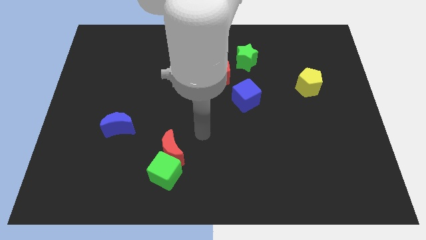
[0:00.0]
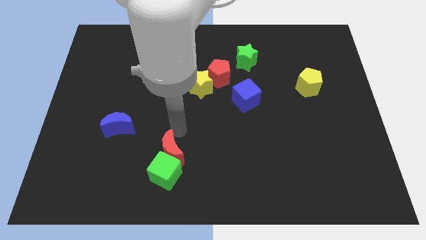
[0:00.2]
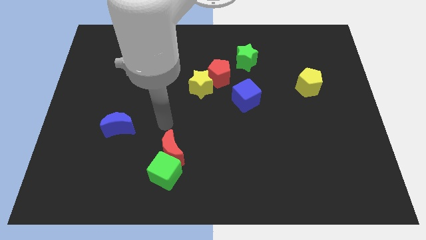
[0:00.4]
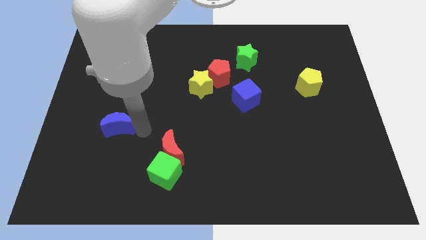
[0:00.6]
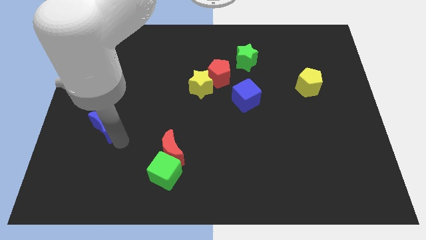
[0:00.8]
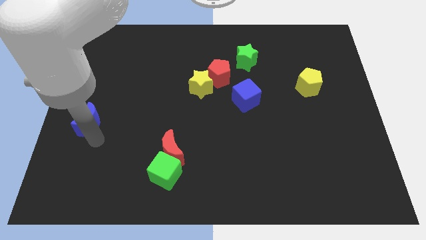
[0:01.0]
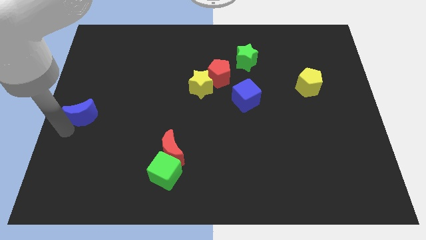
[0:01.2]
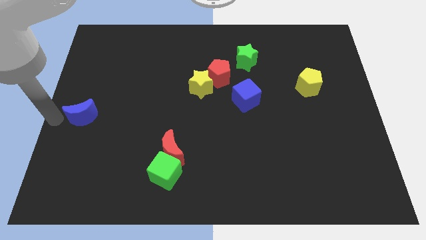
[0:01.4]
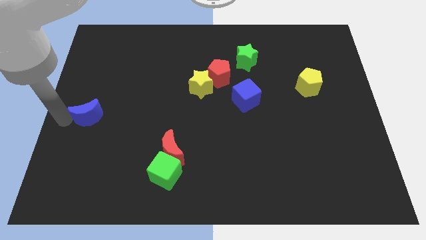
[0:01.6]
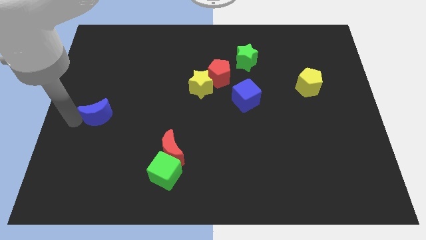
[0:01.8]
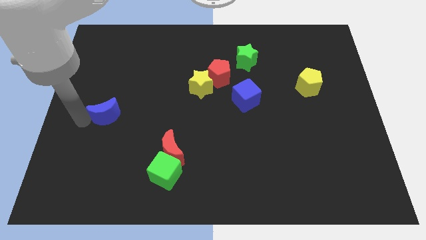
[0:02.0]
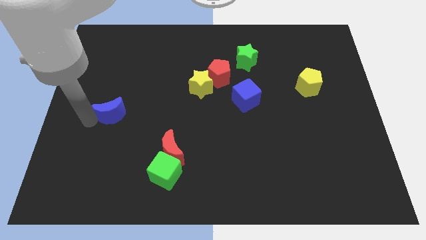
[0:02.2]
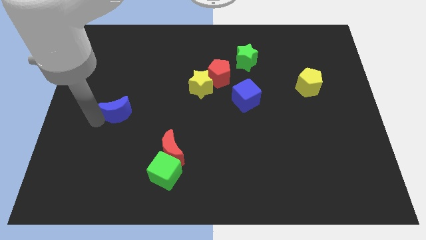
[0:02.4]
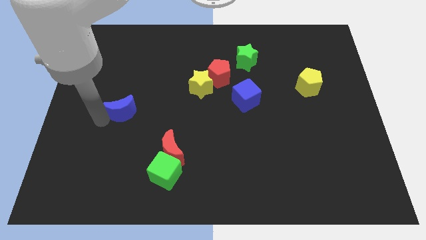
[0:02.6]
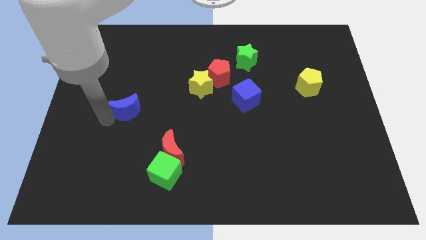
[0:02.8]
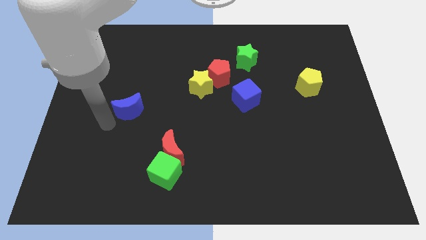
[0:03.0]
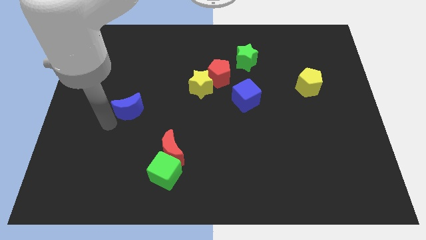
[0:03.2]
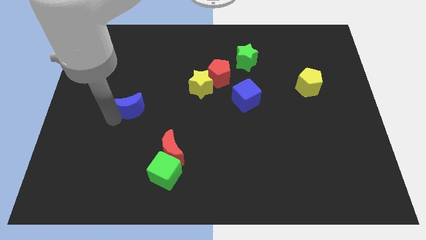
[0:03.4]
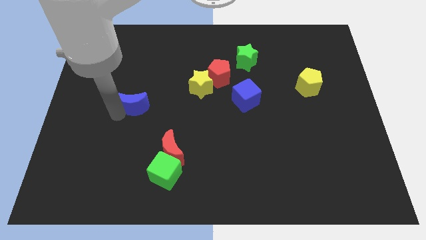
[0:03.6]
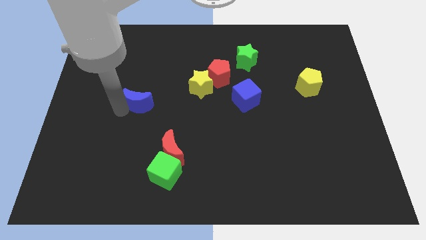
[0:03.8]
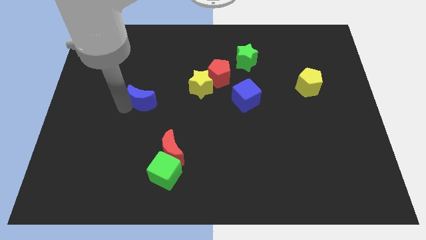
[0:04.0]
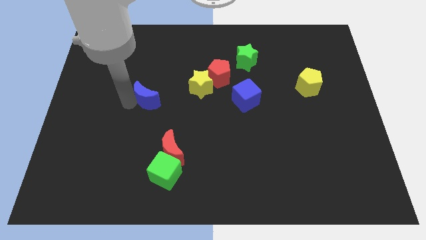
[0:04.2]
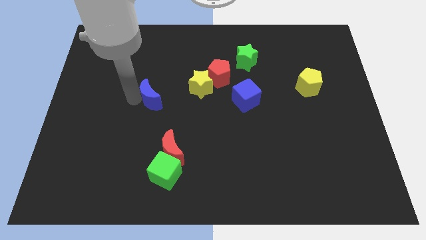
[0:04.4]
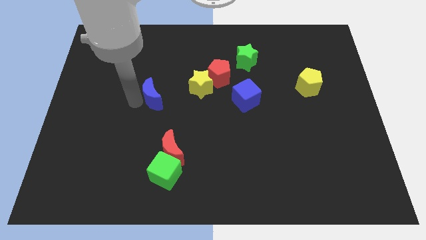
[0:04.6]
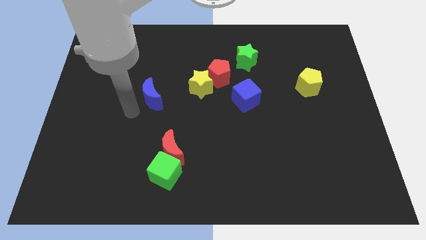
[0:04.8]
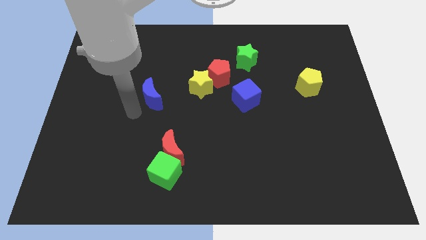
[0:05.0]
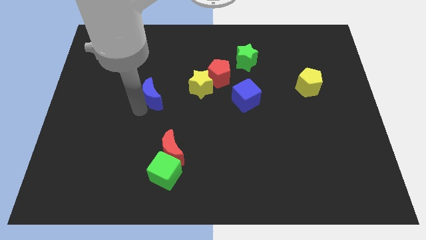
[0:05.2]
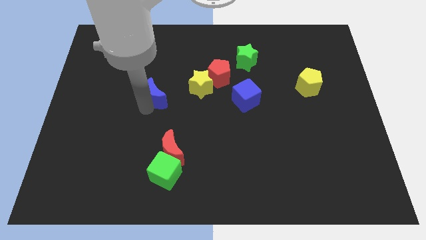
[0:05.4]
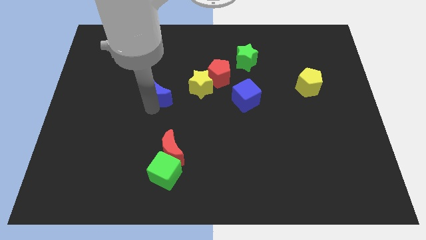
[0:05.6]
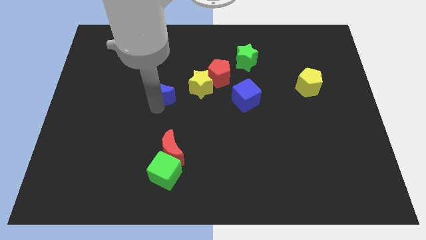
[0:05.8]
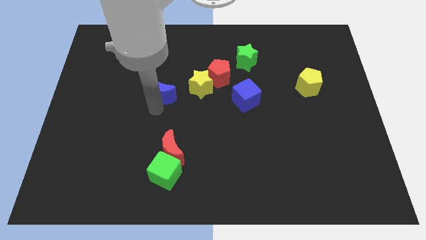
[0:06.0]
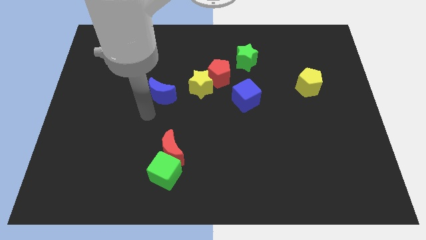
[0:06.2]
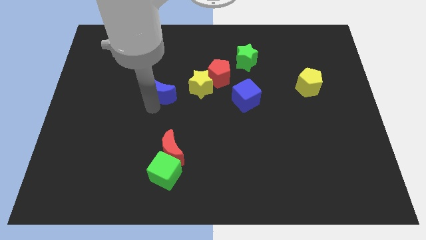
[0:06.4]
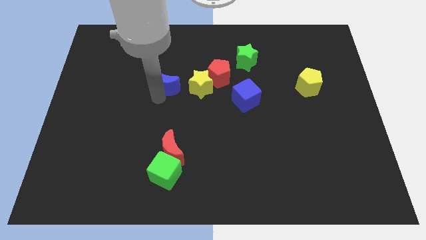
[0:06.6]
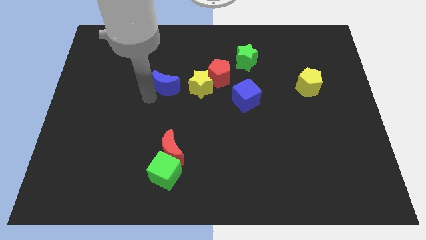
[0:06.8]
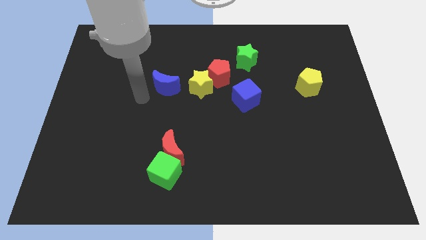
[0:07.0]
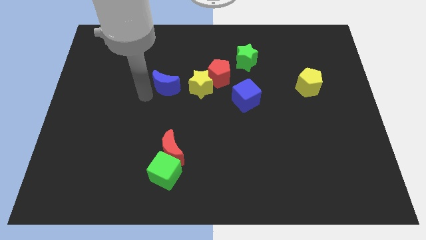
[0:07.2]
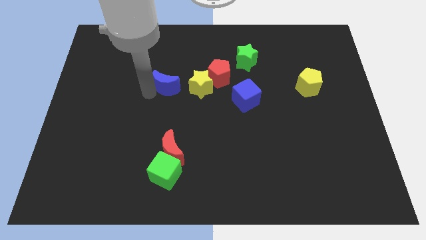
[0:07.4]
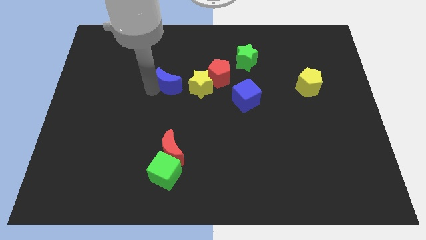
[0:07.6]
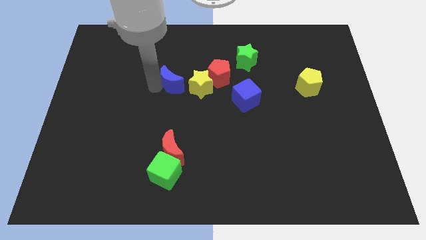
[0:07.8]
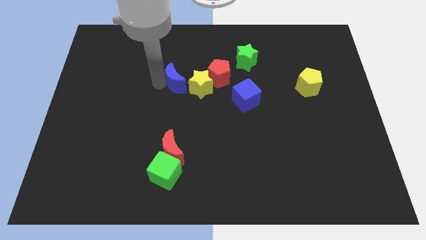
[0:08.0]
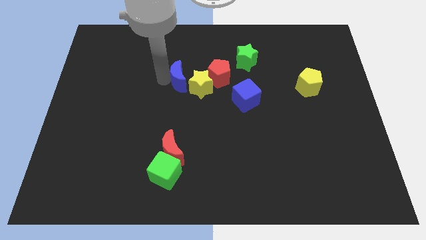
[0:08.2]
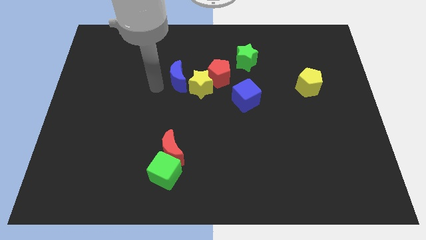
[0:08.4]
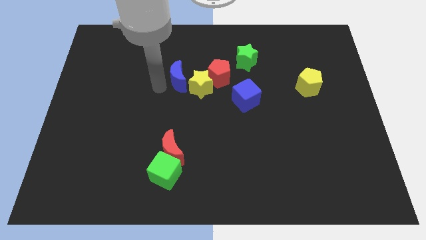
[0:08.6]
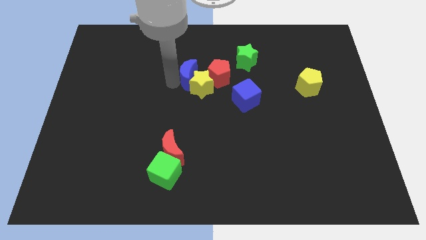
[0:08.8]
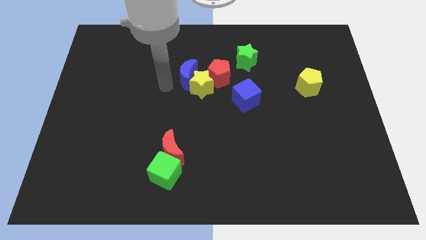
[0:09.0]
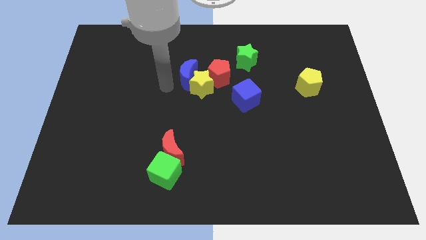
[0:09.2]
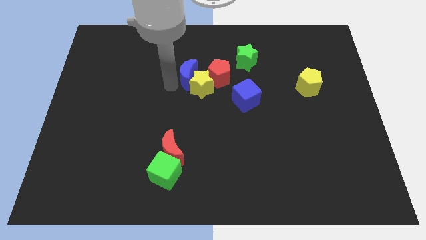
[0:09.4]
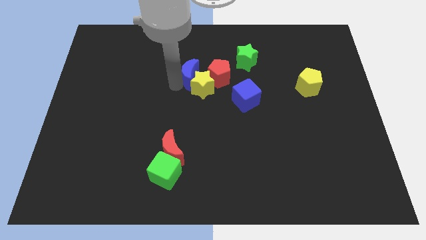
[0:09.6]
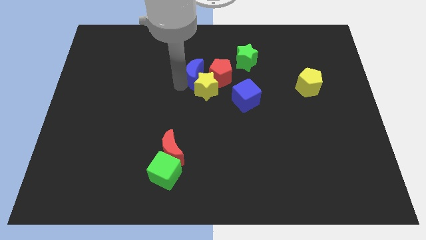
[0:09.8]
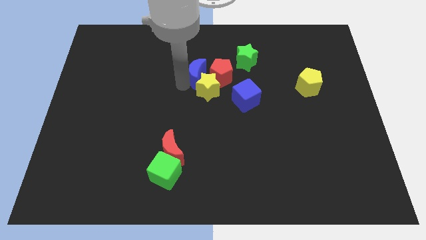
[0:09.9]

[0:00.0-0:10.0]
push the blue moon next to the red pentagon

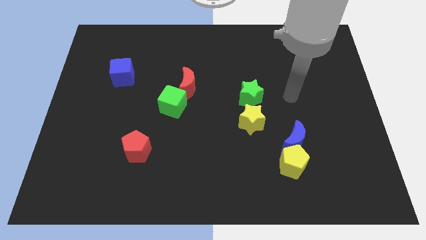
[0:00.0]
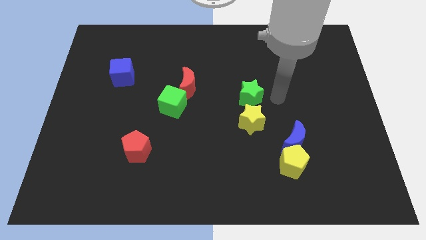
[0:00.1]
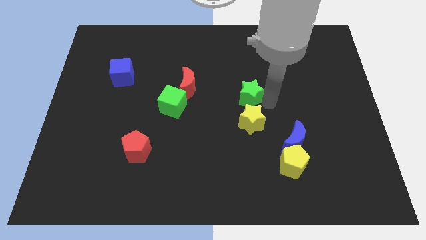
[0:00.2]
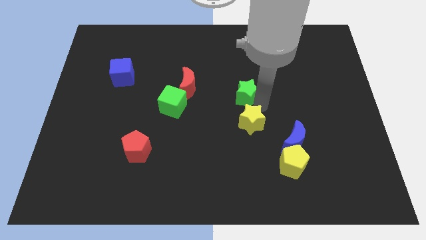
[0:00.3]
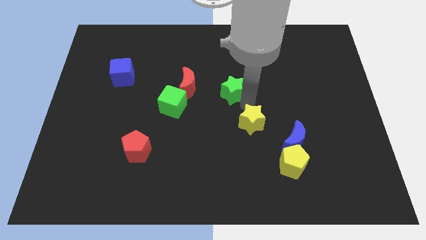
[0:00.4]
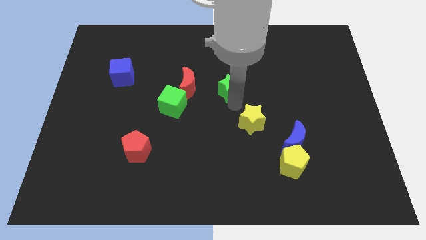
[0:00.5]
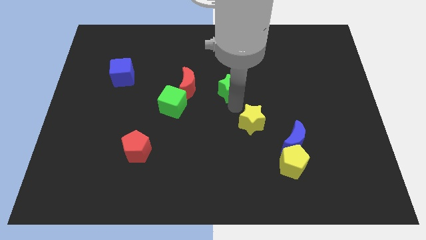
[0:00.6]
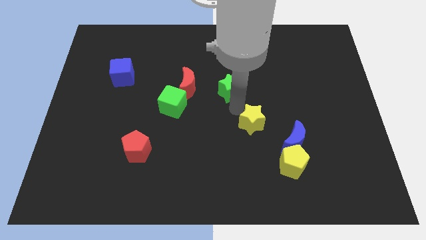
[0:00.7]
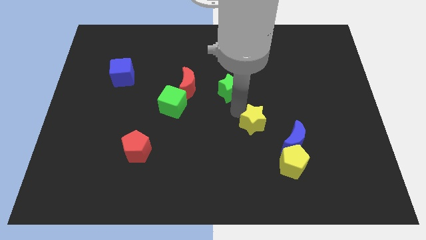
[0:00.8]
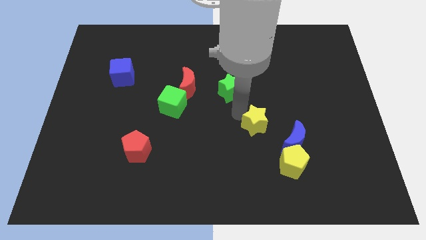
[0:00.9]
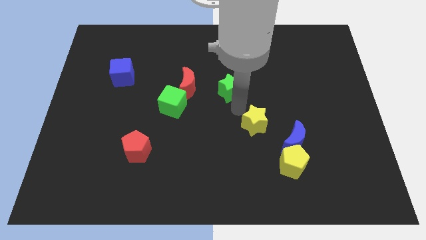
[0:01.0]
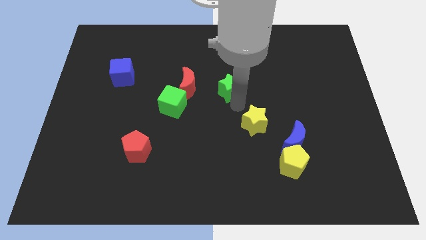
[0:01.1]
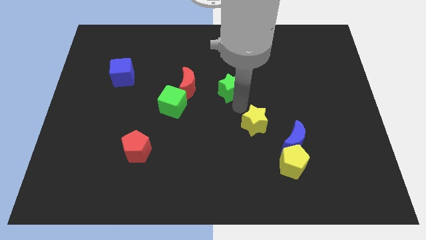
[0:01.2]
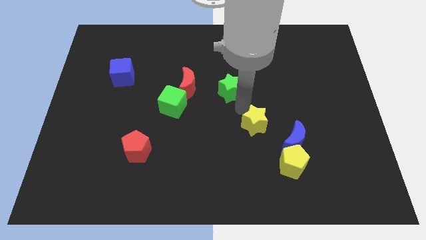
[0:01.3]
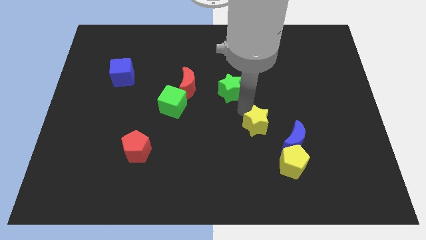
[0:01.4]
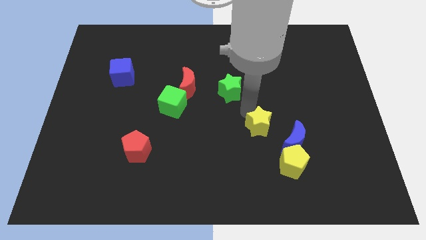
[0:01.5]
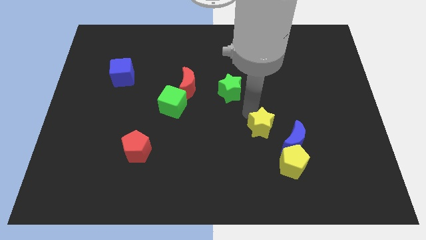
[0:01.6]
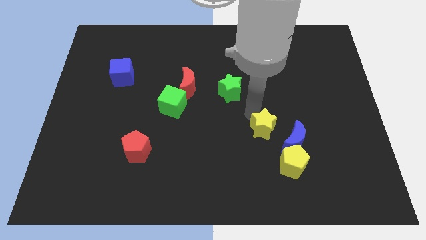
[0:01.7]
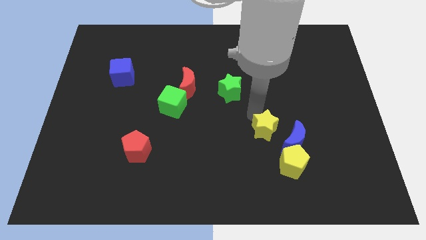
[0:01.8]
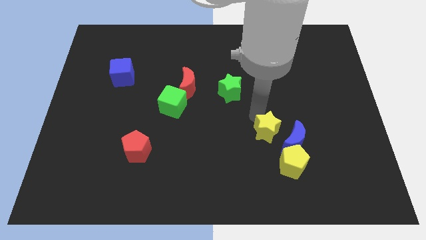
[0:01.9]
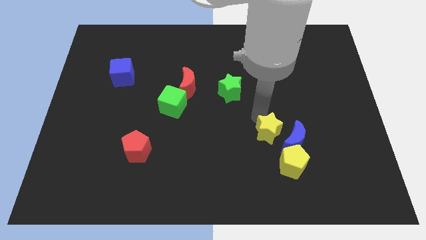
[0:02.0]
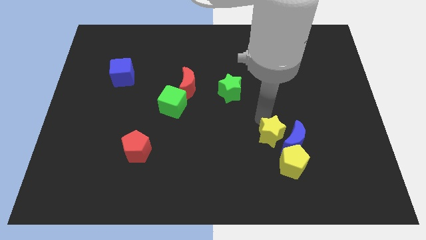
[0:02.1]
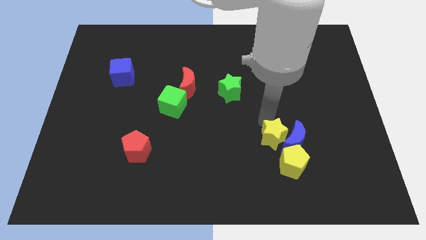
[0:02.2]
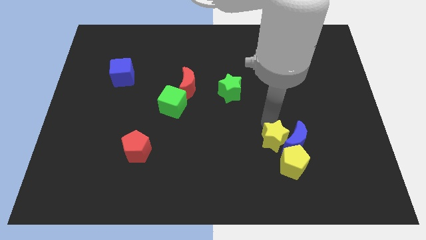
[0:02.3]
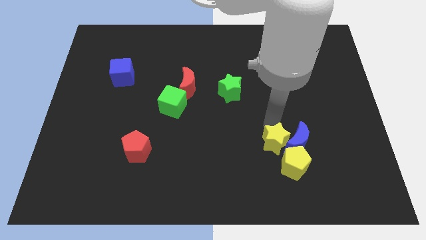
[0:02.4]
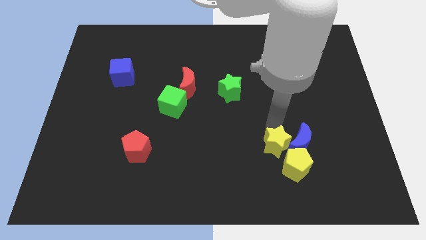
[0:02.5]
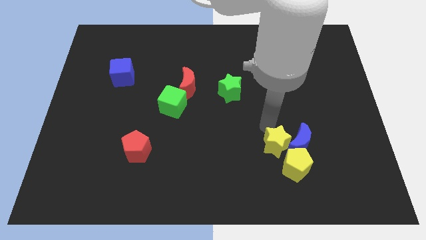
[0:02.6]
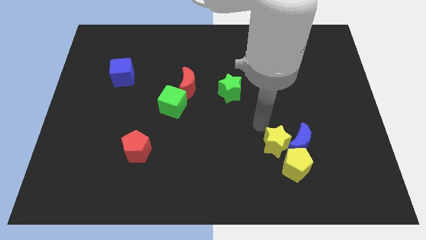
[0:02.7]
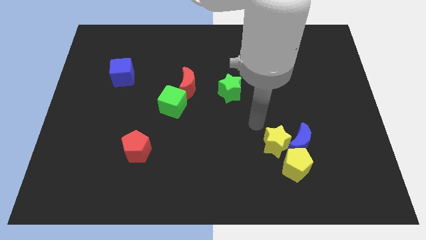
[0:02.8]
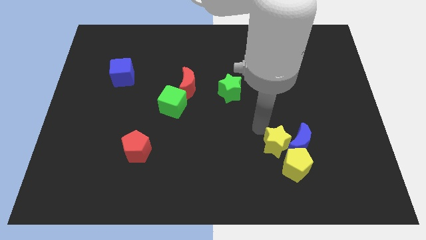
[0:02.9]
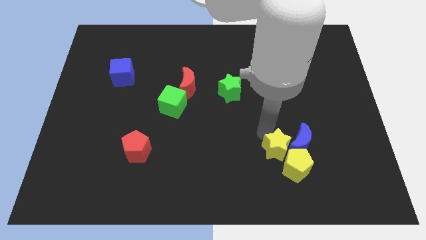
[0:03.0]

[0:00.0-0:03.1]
slide the yellow star towards the yellow pentagon
